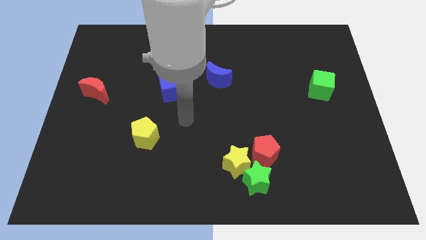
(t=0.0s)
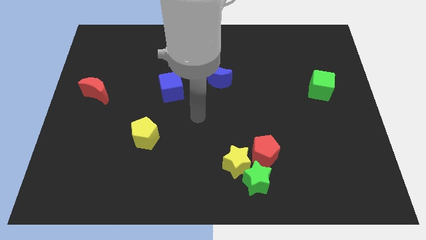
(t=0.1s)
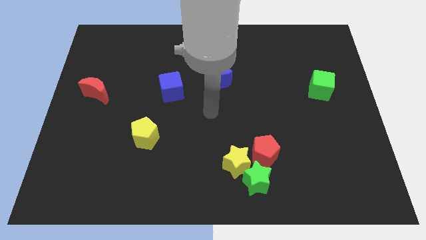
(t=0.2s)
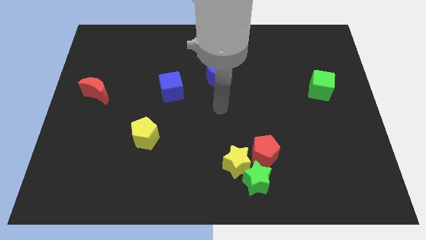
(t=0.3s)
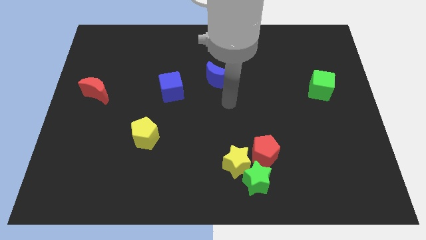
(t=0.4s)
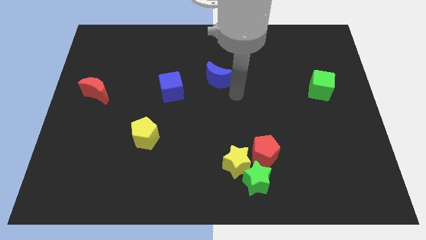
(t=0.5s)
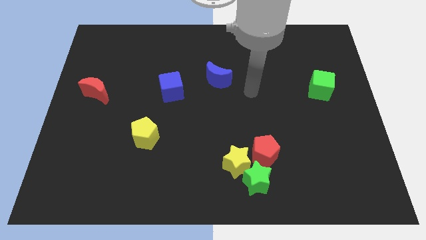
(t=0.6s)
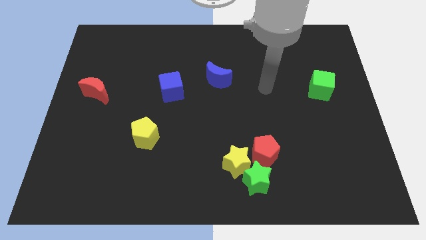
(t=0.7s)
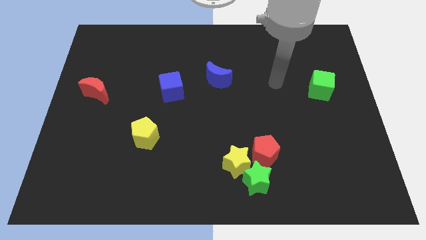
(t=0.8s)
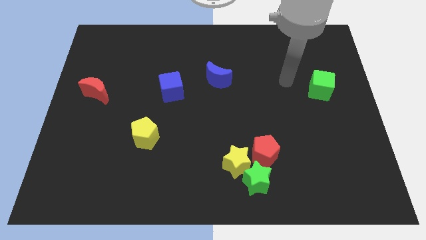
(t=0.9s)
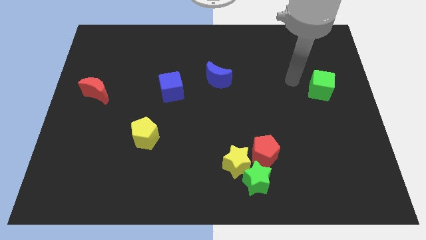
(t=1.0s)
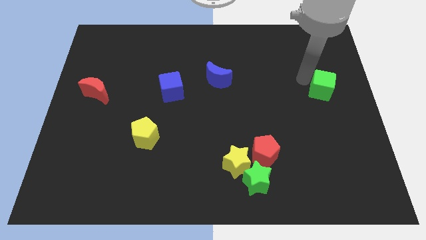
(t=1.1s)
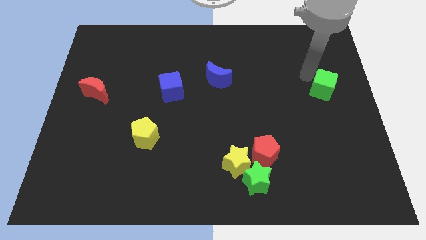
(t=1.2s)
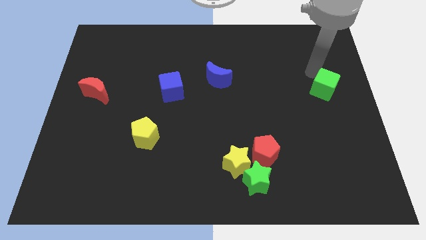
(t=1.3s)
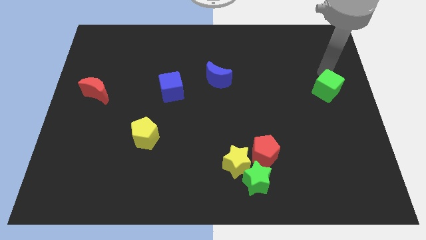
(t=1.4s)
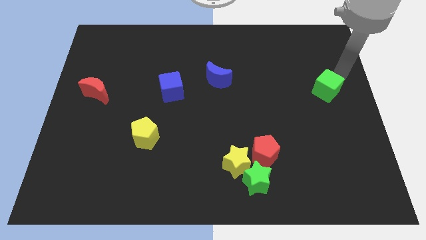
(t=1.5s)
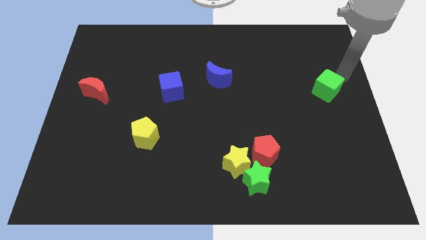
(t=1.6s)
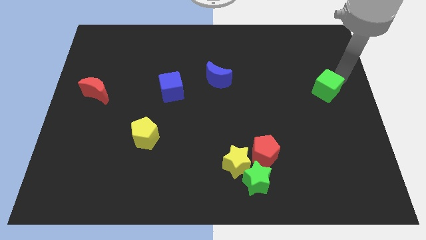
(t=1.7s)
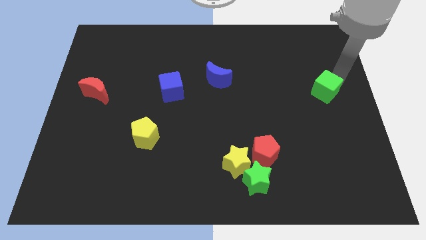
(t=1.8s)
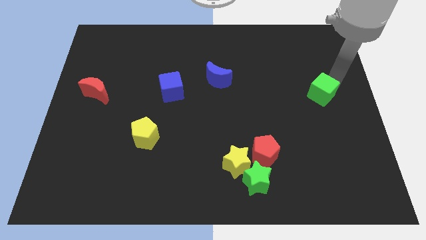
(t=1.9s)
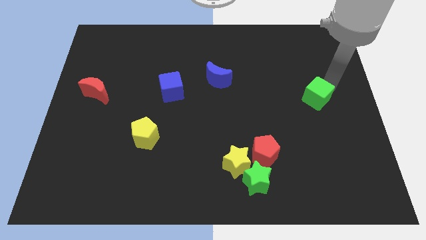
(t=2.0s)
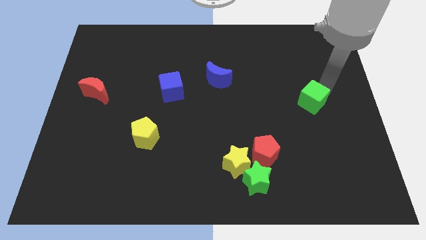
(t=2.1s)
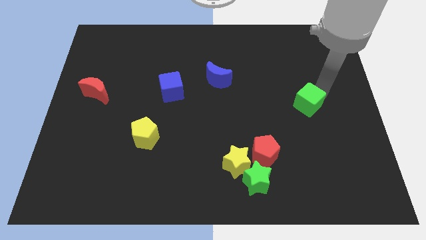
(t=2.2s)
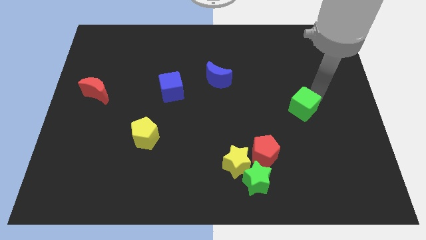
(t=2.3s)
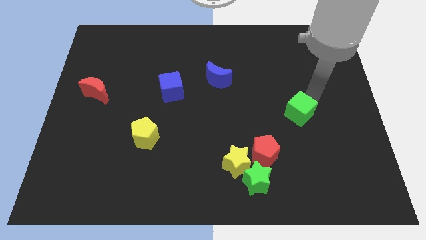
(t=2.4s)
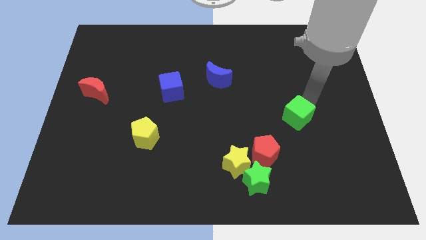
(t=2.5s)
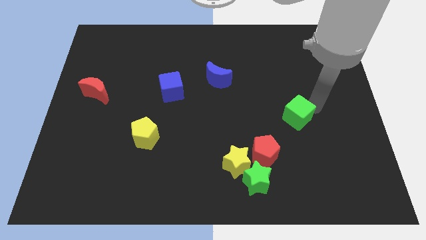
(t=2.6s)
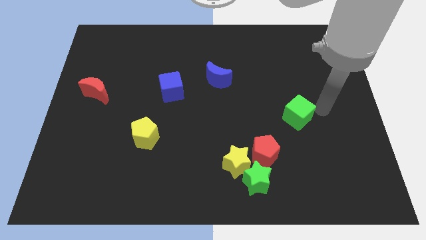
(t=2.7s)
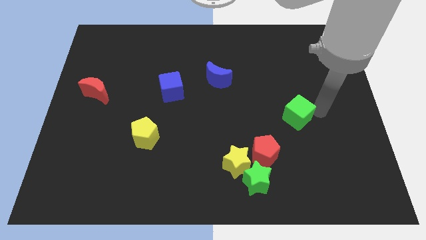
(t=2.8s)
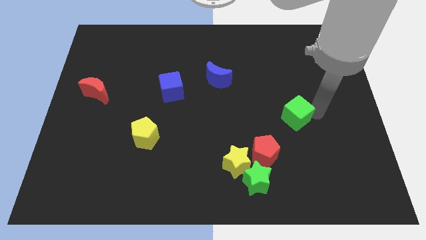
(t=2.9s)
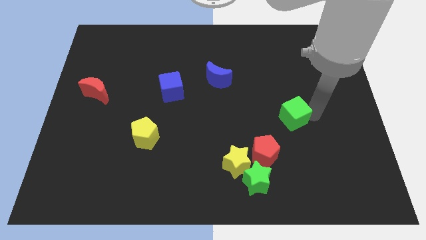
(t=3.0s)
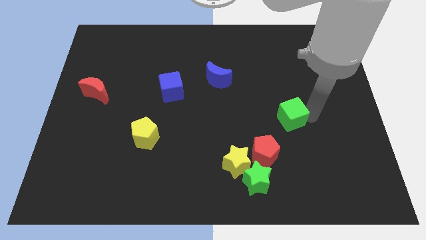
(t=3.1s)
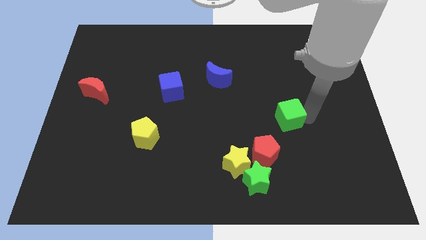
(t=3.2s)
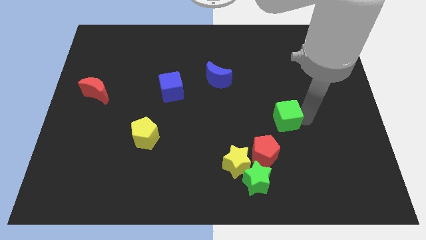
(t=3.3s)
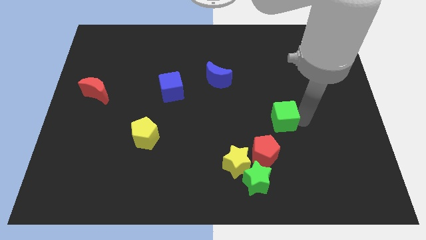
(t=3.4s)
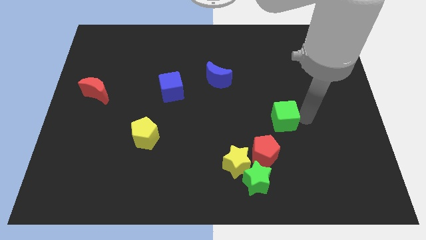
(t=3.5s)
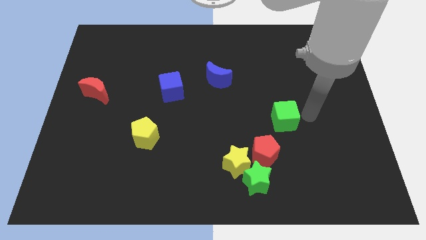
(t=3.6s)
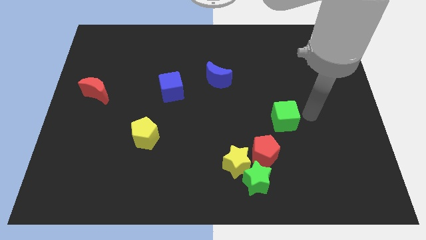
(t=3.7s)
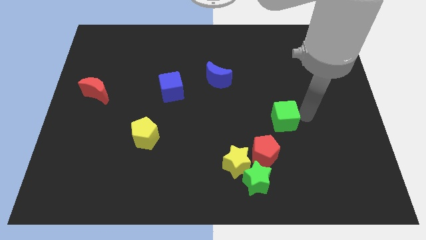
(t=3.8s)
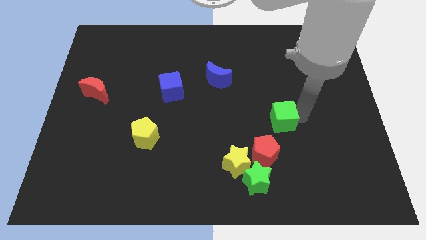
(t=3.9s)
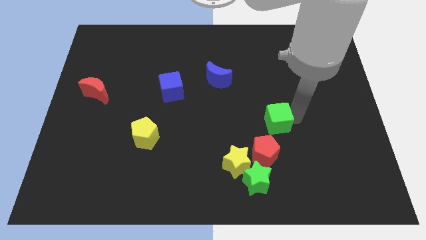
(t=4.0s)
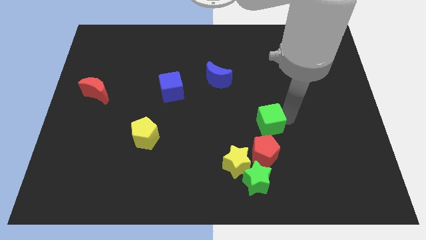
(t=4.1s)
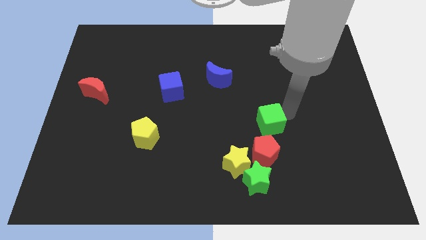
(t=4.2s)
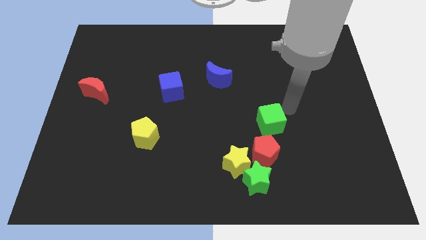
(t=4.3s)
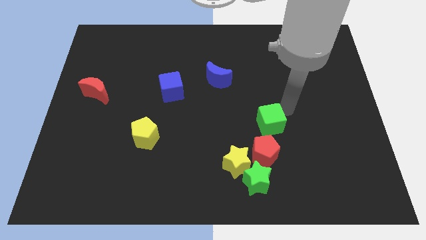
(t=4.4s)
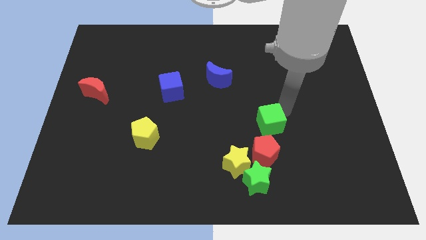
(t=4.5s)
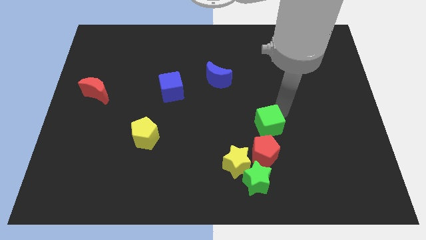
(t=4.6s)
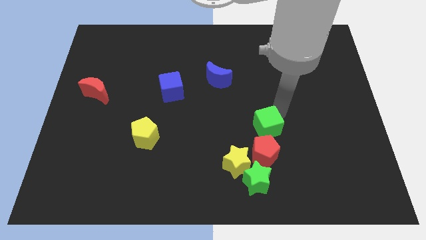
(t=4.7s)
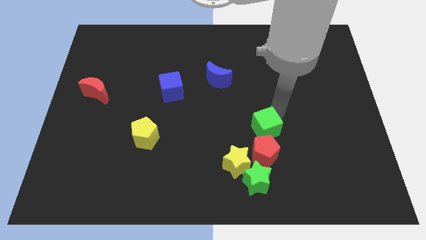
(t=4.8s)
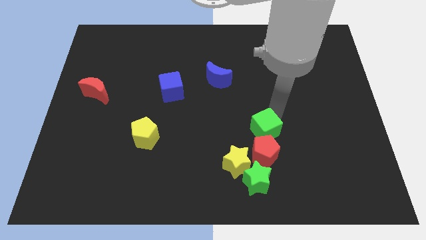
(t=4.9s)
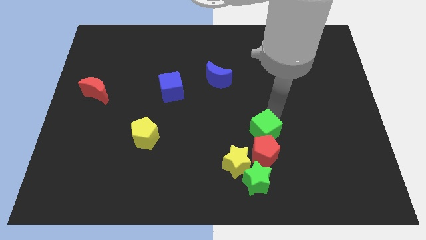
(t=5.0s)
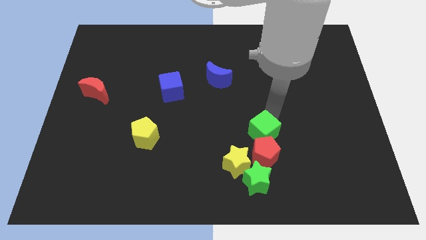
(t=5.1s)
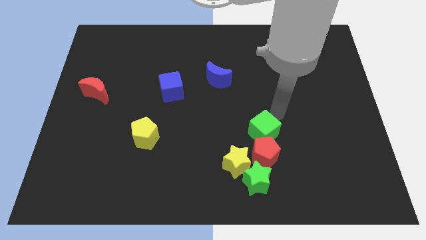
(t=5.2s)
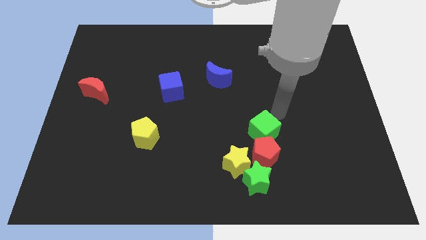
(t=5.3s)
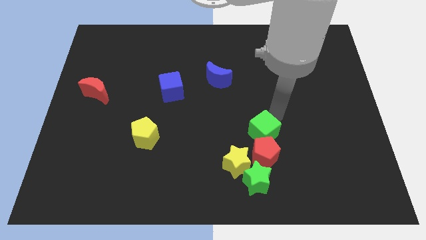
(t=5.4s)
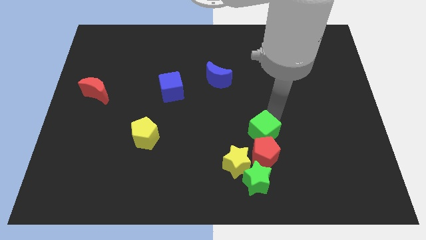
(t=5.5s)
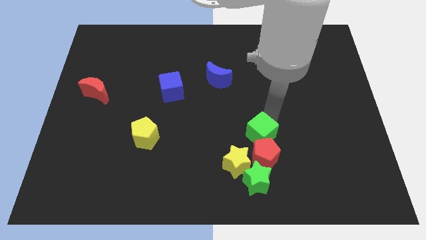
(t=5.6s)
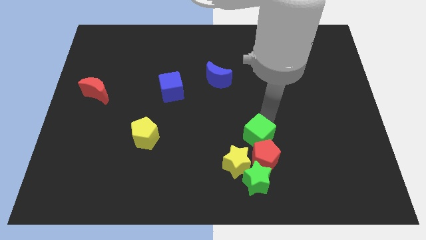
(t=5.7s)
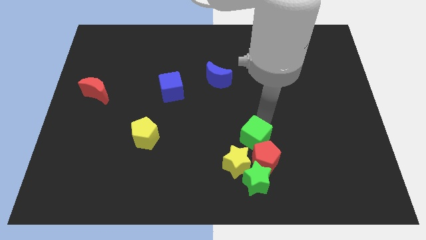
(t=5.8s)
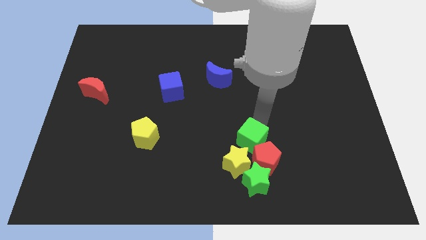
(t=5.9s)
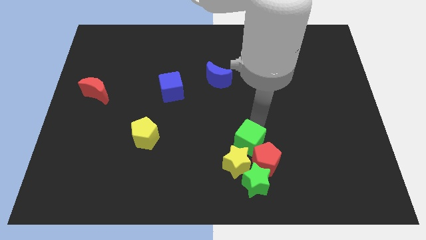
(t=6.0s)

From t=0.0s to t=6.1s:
move the green cube next to the yellow star

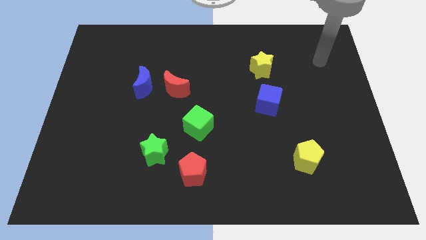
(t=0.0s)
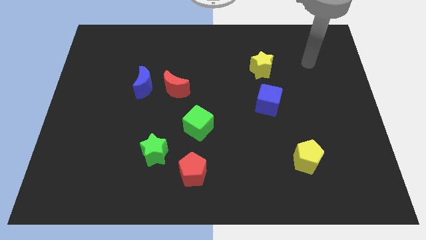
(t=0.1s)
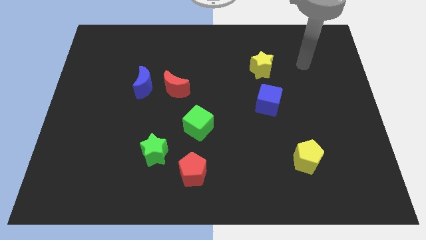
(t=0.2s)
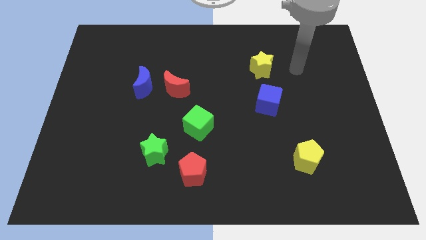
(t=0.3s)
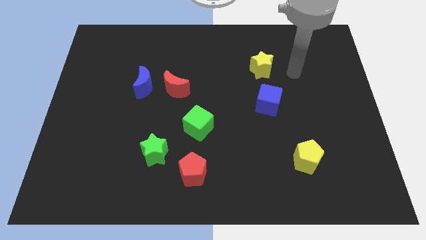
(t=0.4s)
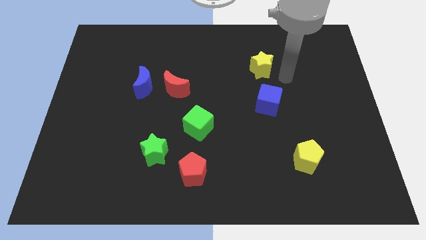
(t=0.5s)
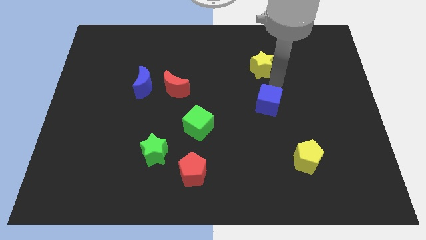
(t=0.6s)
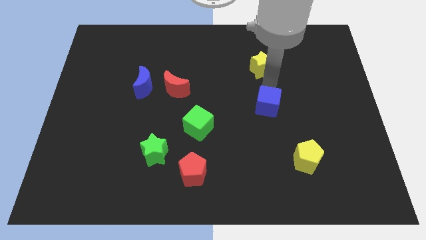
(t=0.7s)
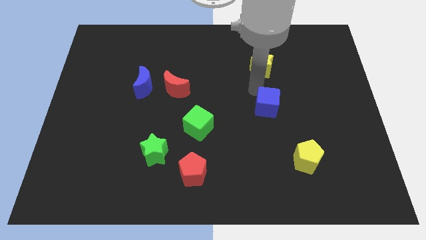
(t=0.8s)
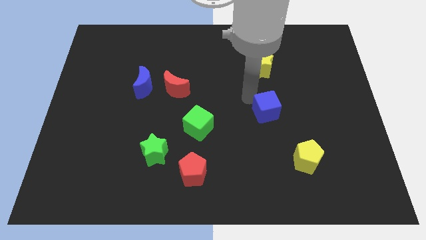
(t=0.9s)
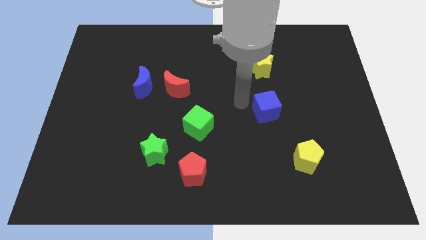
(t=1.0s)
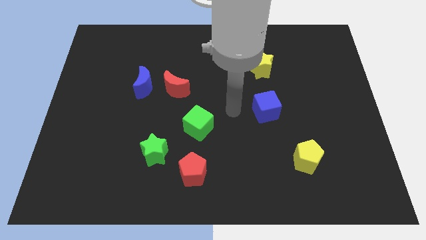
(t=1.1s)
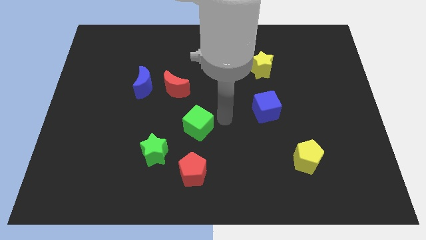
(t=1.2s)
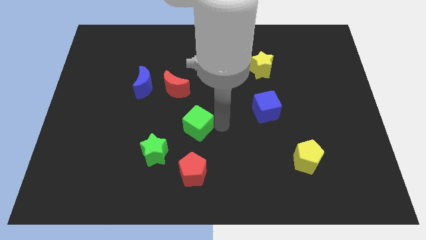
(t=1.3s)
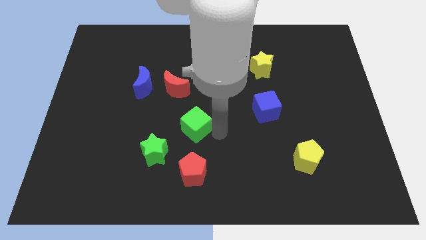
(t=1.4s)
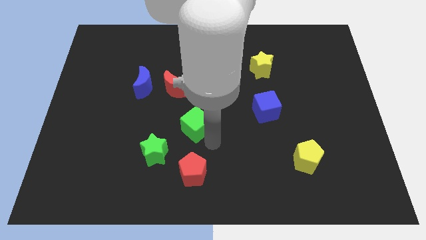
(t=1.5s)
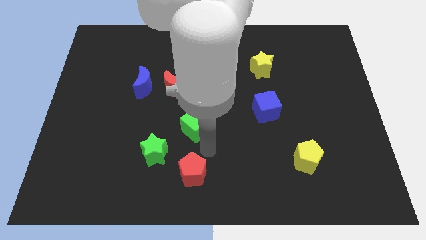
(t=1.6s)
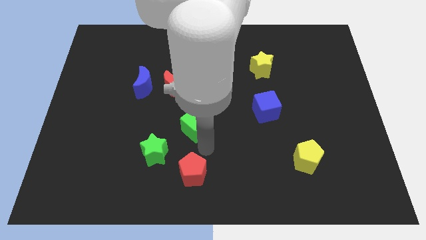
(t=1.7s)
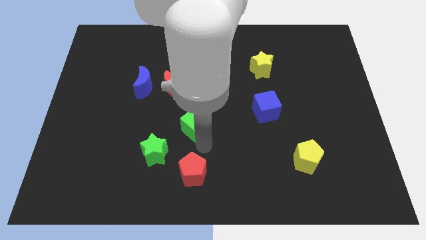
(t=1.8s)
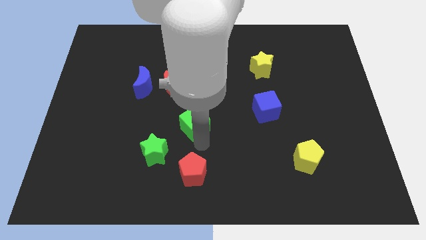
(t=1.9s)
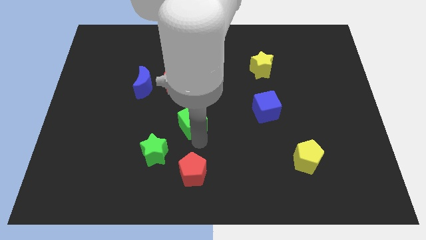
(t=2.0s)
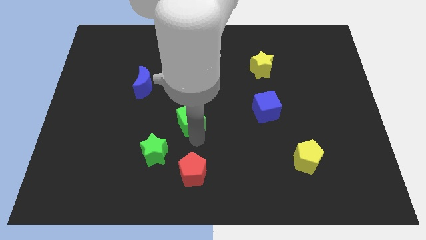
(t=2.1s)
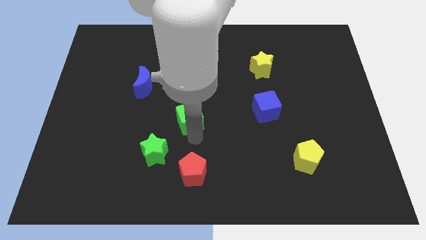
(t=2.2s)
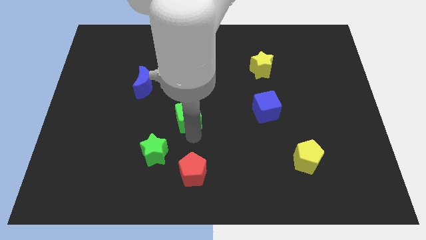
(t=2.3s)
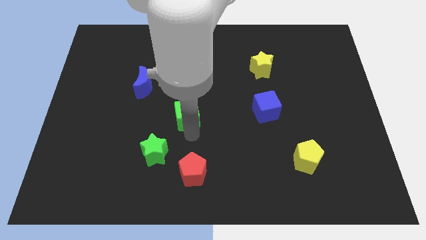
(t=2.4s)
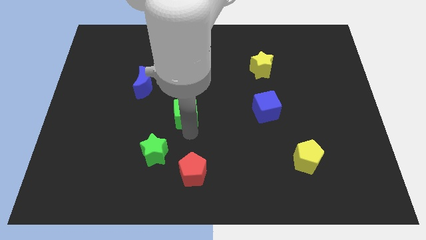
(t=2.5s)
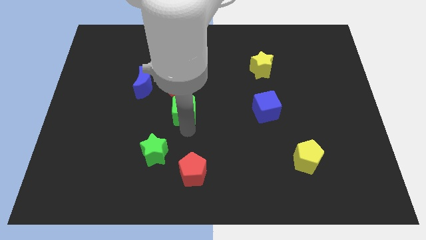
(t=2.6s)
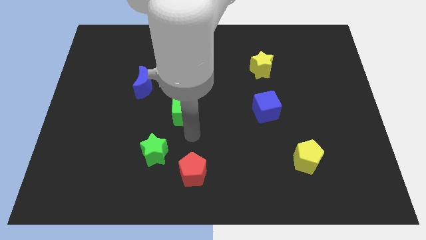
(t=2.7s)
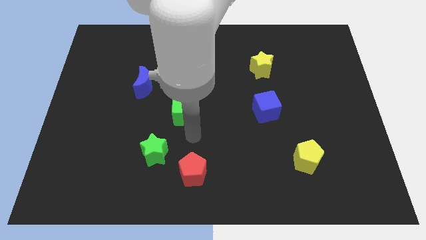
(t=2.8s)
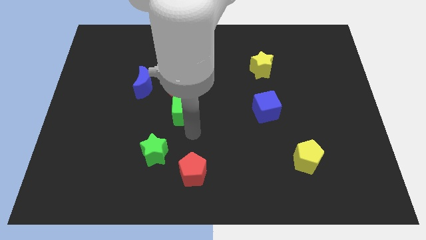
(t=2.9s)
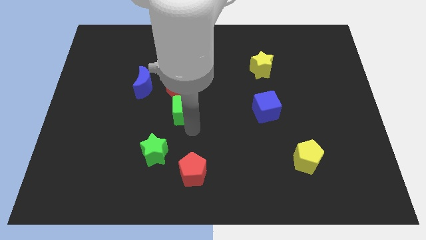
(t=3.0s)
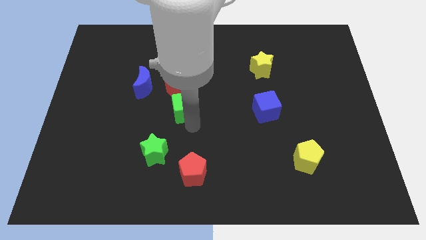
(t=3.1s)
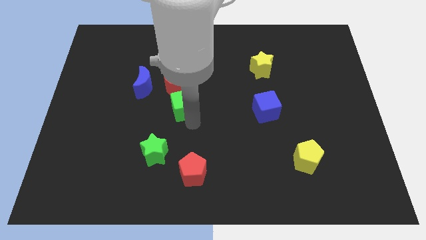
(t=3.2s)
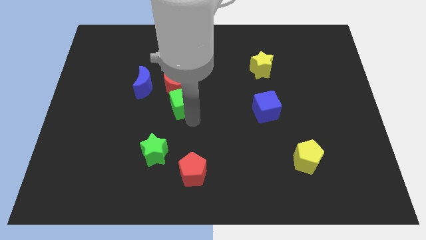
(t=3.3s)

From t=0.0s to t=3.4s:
push the green cube close to the red moon
